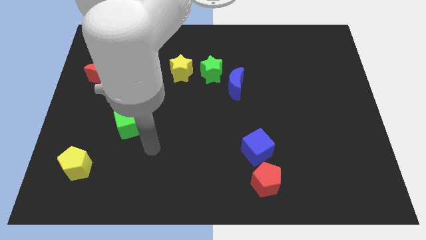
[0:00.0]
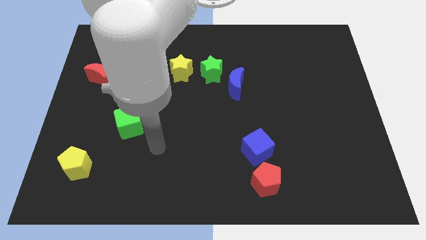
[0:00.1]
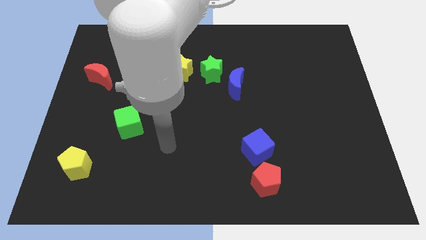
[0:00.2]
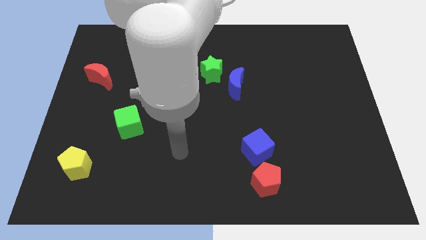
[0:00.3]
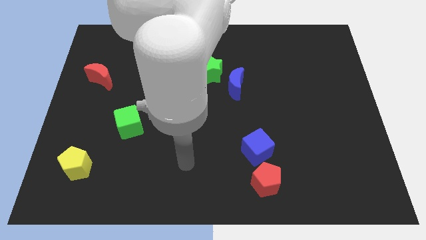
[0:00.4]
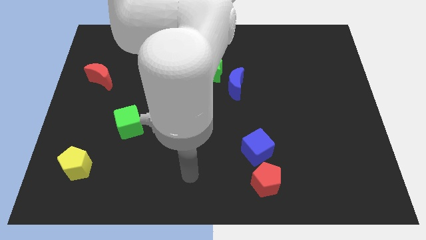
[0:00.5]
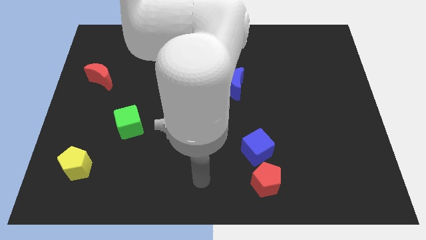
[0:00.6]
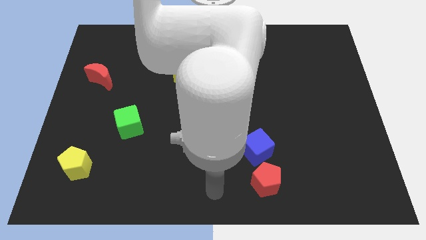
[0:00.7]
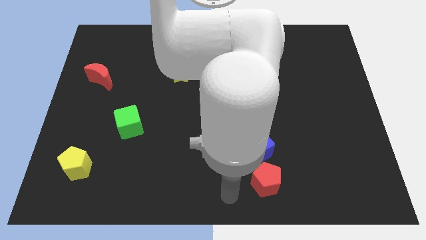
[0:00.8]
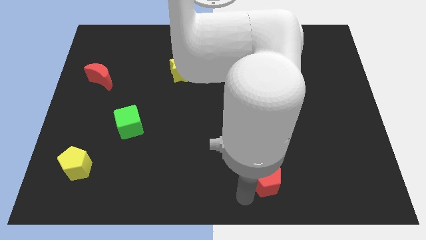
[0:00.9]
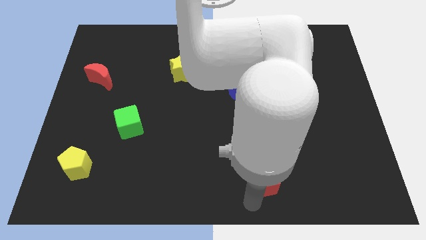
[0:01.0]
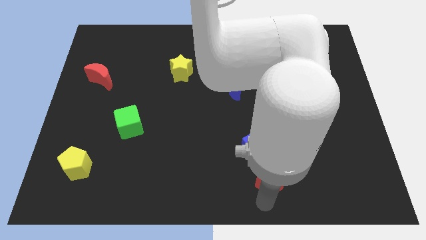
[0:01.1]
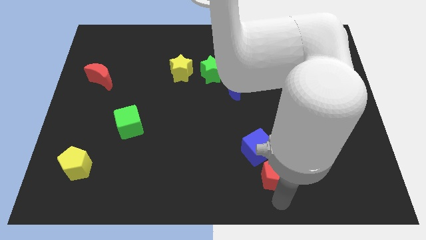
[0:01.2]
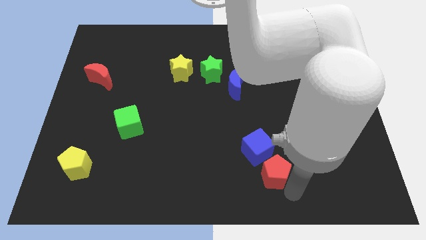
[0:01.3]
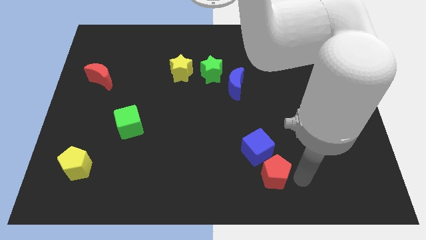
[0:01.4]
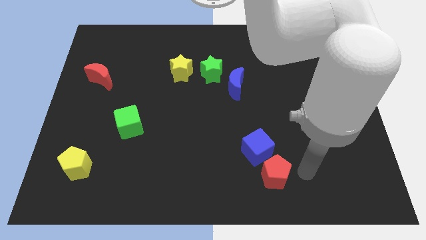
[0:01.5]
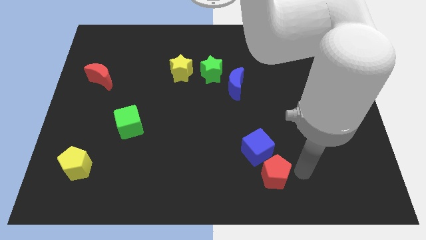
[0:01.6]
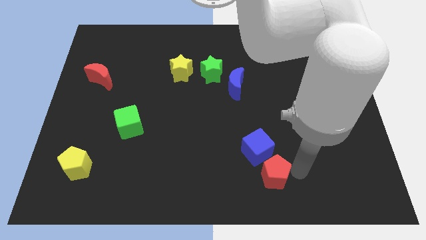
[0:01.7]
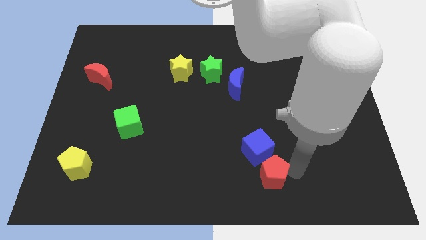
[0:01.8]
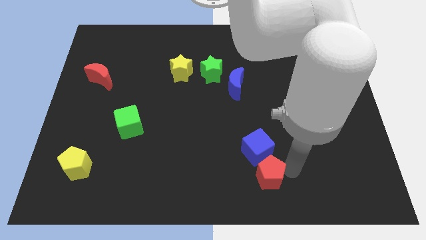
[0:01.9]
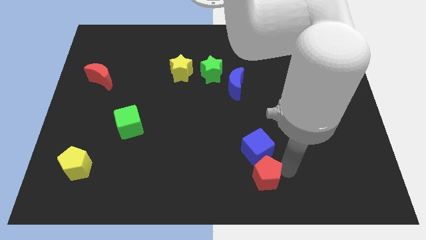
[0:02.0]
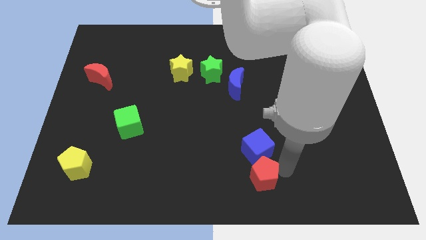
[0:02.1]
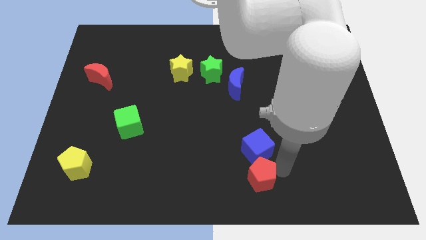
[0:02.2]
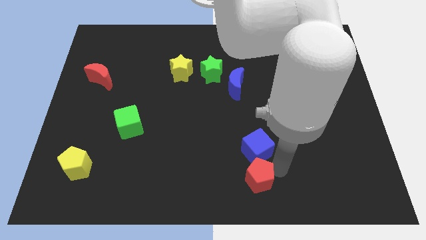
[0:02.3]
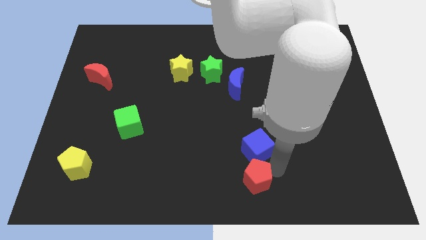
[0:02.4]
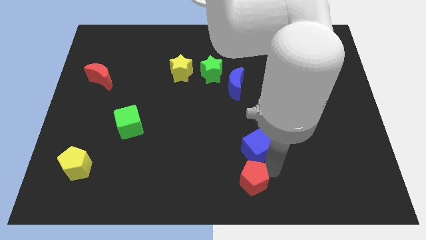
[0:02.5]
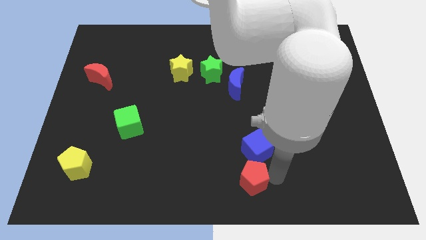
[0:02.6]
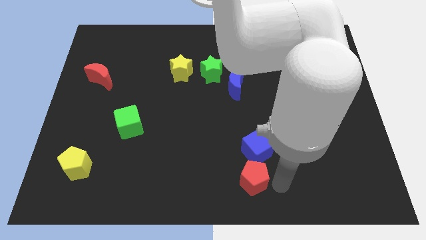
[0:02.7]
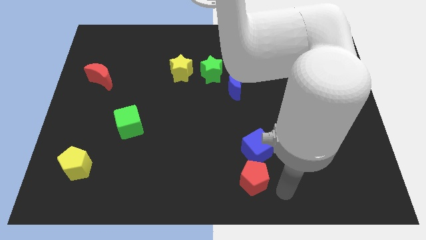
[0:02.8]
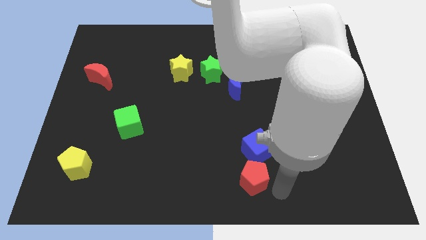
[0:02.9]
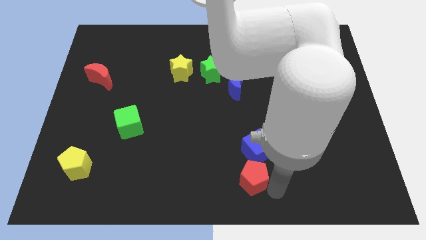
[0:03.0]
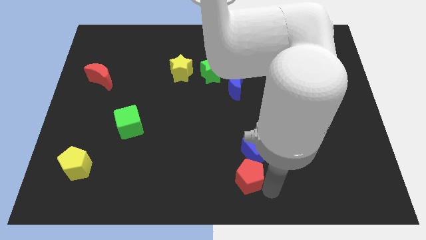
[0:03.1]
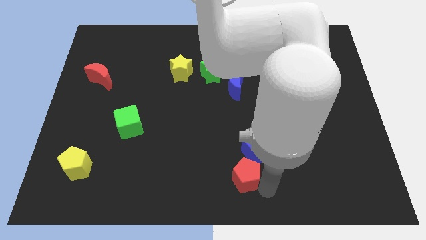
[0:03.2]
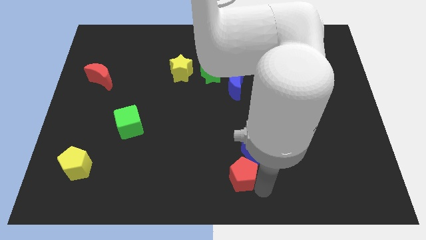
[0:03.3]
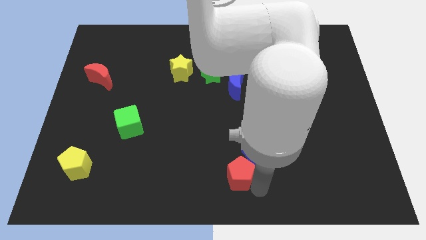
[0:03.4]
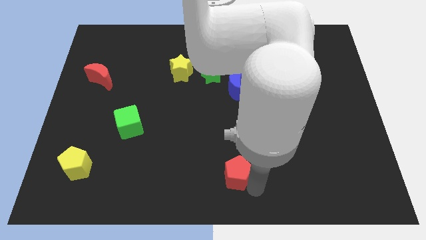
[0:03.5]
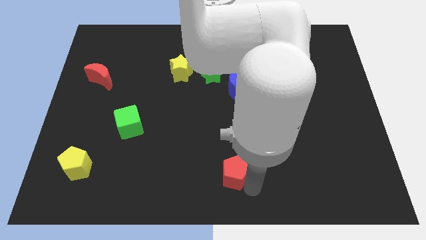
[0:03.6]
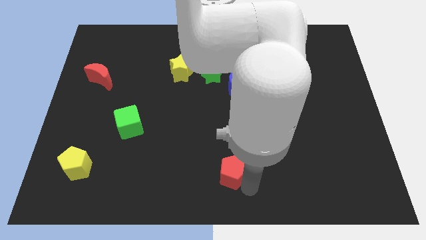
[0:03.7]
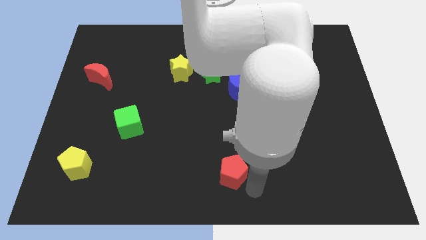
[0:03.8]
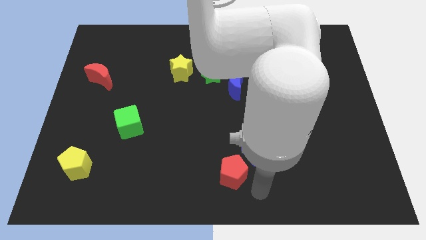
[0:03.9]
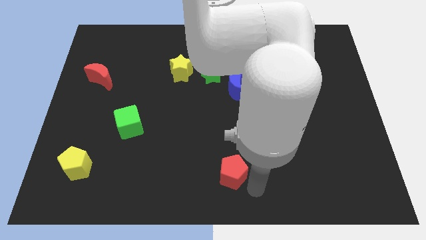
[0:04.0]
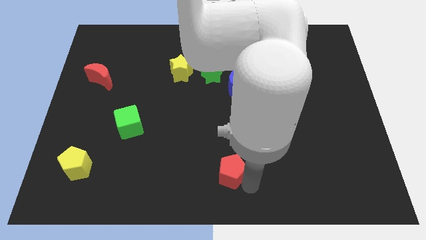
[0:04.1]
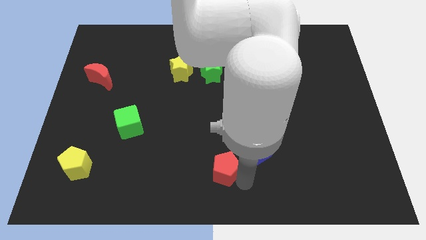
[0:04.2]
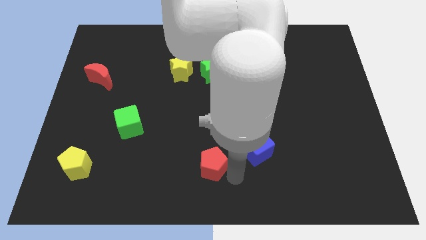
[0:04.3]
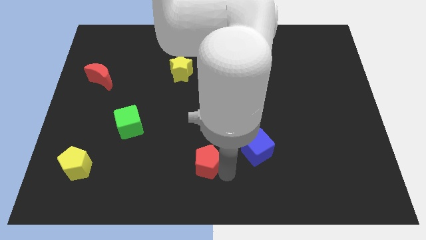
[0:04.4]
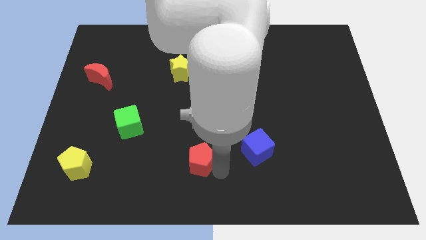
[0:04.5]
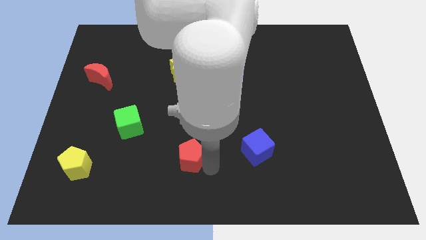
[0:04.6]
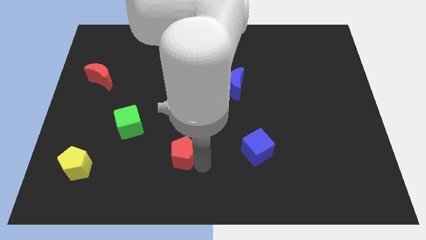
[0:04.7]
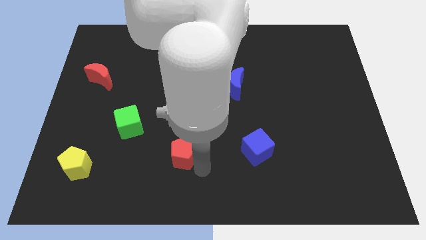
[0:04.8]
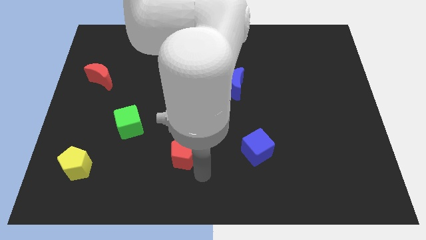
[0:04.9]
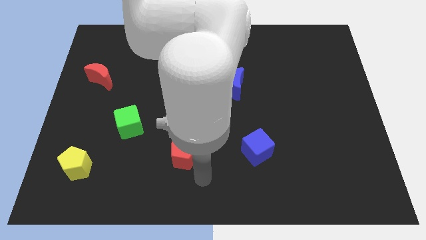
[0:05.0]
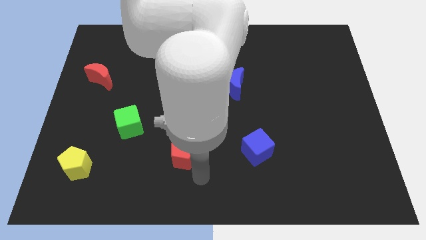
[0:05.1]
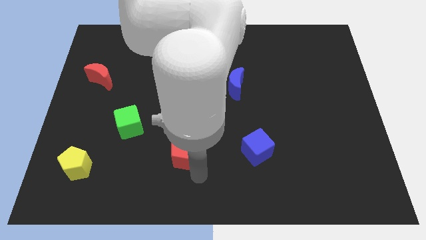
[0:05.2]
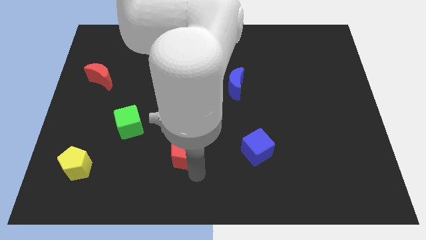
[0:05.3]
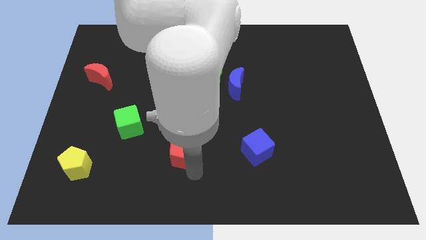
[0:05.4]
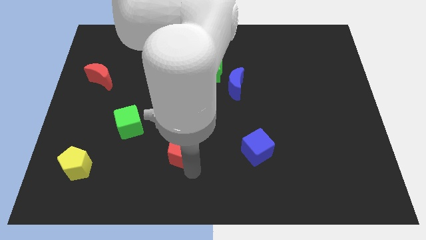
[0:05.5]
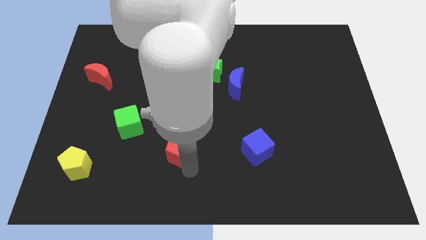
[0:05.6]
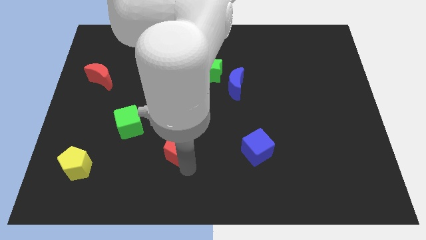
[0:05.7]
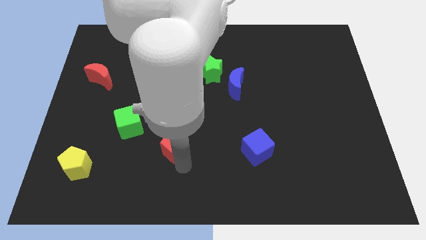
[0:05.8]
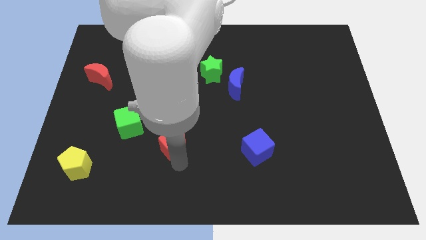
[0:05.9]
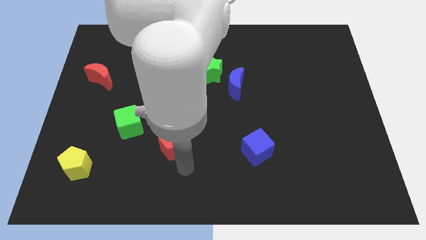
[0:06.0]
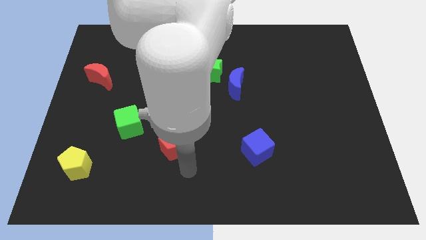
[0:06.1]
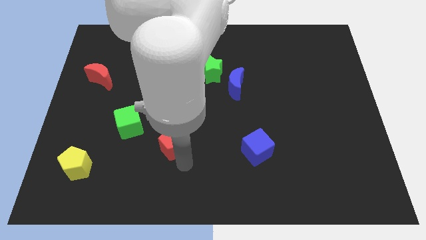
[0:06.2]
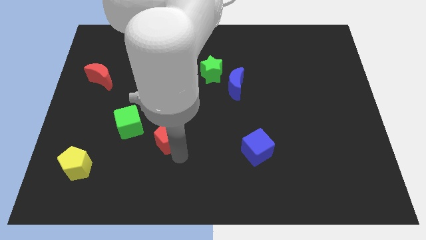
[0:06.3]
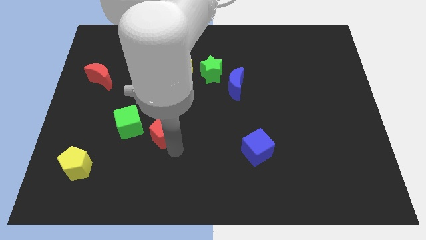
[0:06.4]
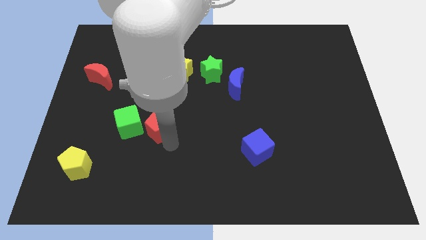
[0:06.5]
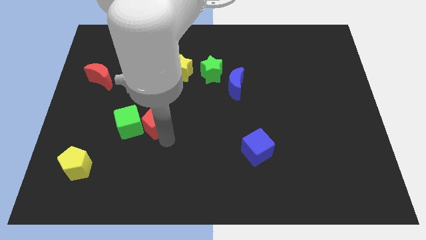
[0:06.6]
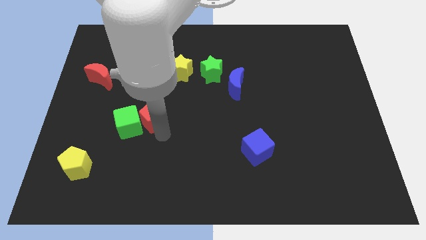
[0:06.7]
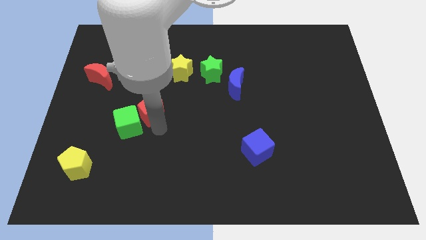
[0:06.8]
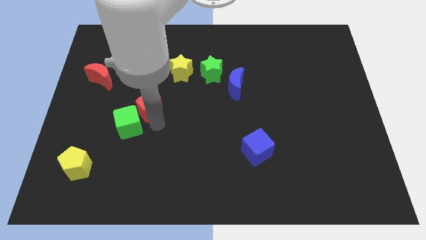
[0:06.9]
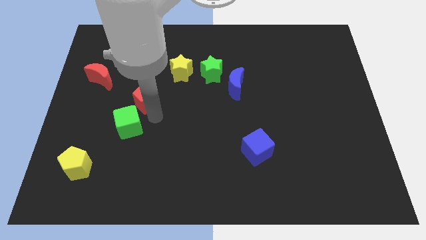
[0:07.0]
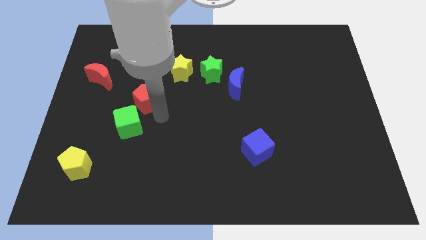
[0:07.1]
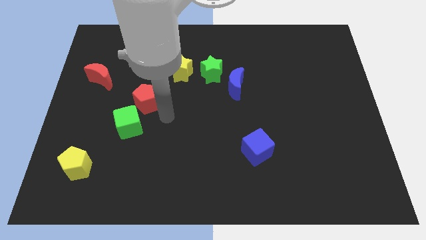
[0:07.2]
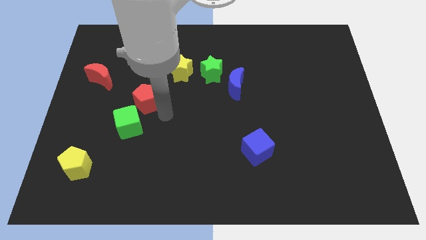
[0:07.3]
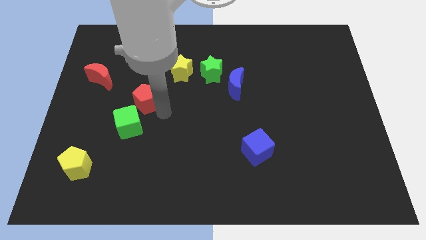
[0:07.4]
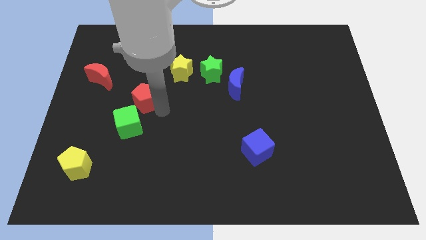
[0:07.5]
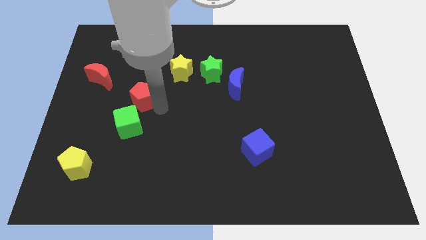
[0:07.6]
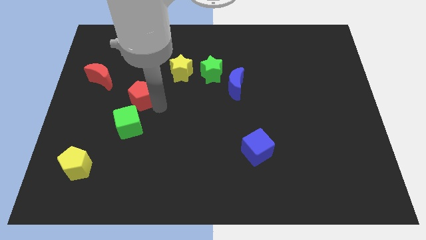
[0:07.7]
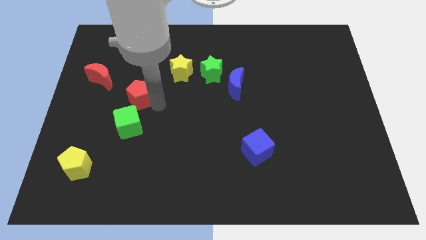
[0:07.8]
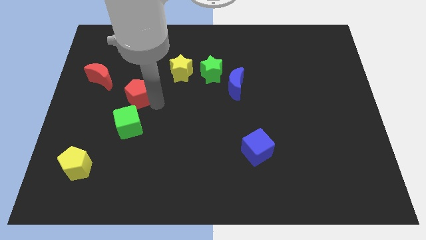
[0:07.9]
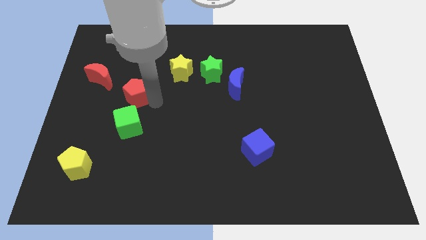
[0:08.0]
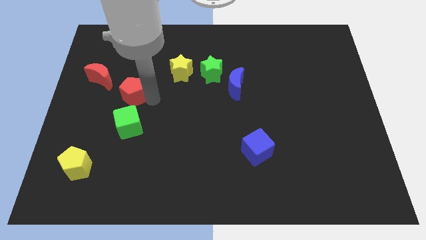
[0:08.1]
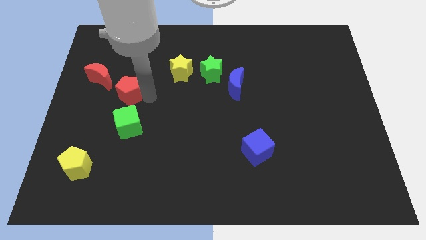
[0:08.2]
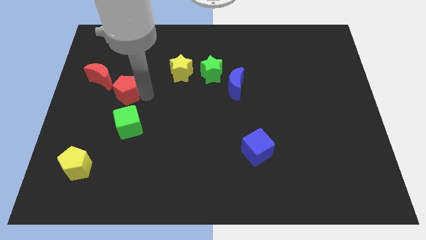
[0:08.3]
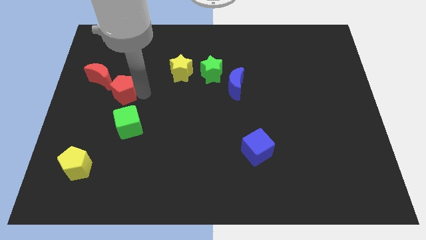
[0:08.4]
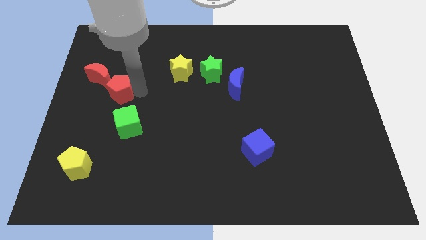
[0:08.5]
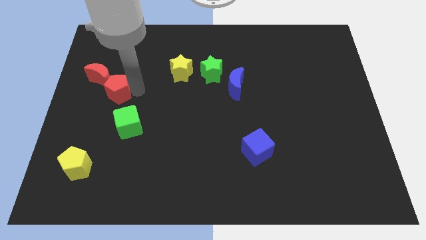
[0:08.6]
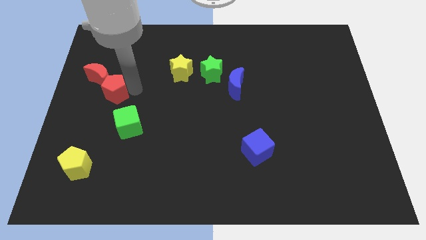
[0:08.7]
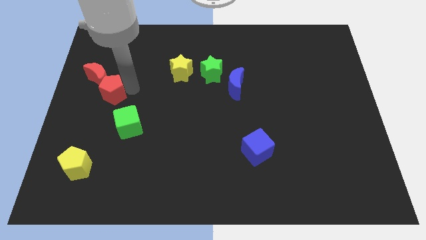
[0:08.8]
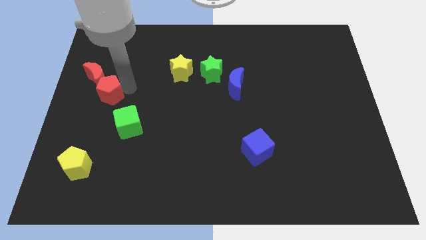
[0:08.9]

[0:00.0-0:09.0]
push the red pentagon next to the red moon
